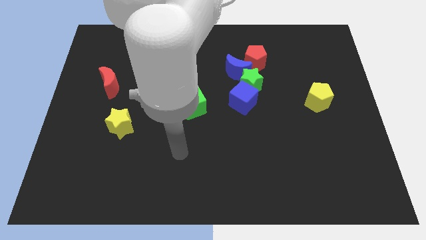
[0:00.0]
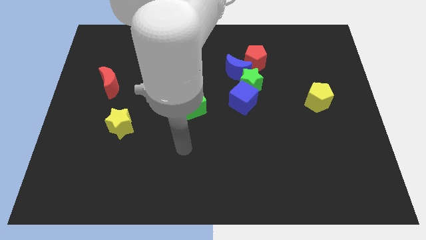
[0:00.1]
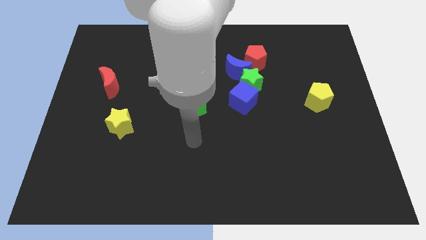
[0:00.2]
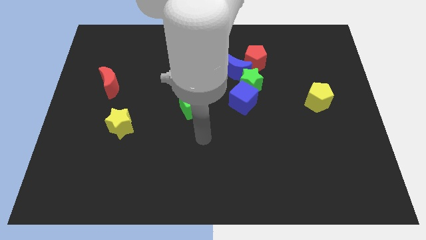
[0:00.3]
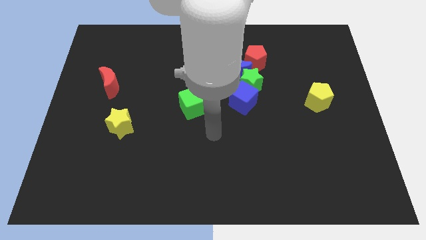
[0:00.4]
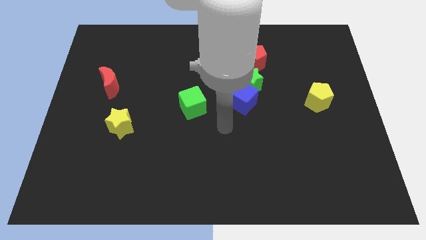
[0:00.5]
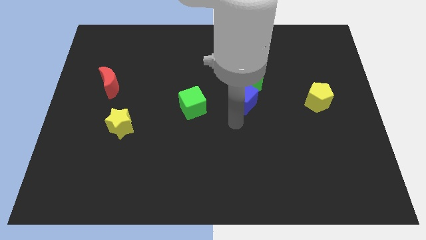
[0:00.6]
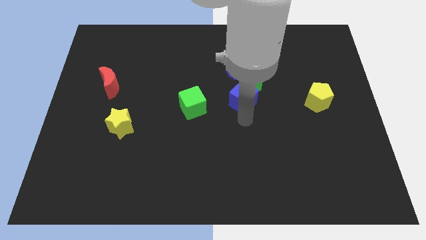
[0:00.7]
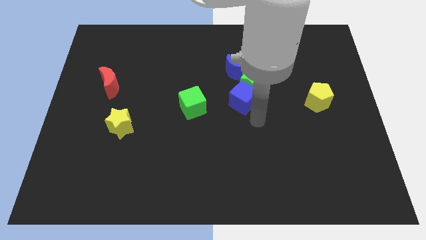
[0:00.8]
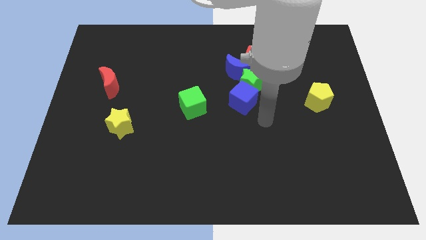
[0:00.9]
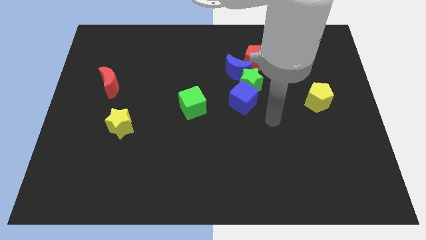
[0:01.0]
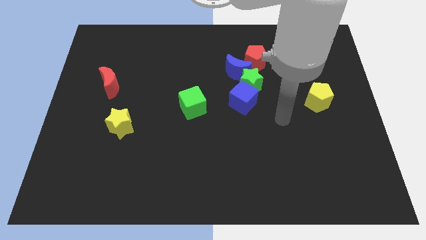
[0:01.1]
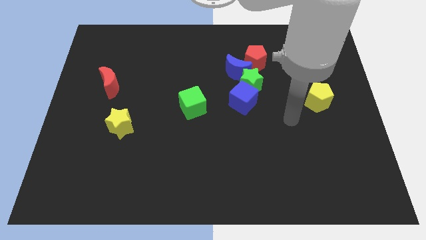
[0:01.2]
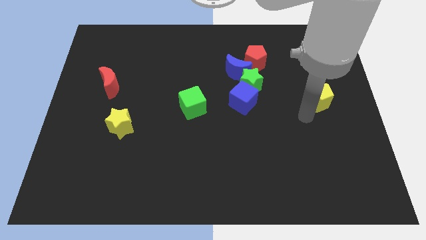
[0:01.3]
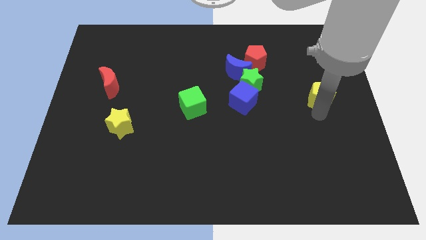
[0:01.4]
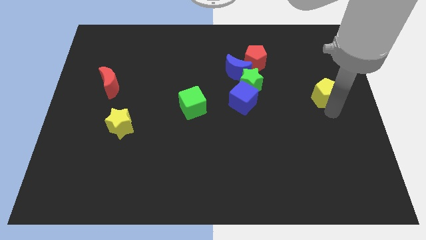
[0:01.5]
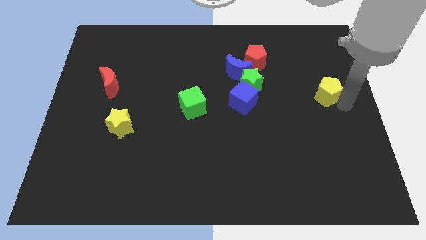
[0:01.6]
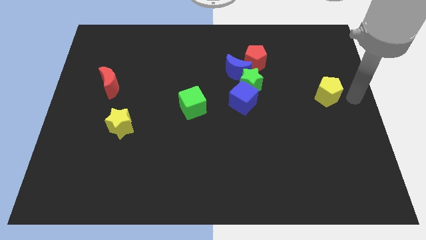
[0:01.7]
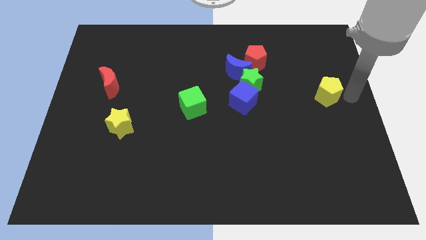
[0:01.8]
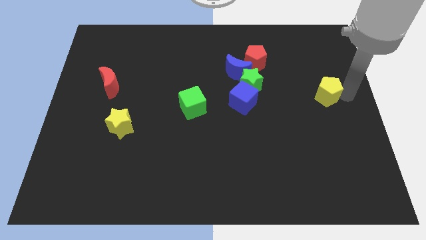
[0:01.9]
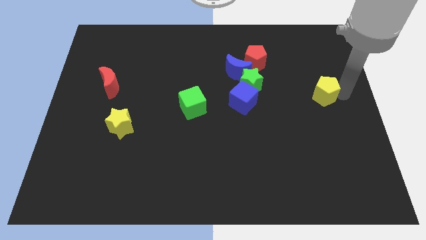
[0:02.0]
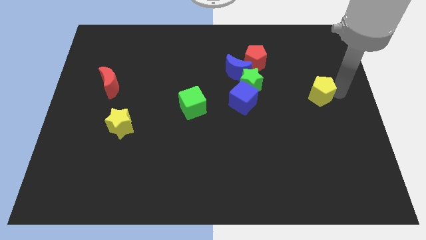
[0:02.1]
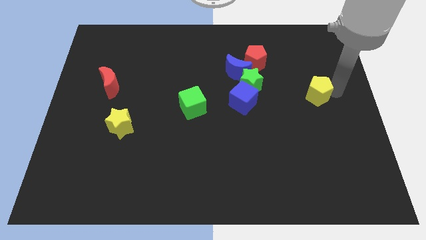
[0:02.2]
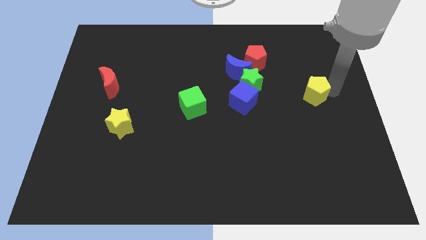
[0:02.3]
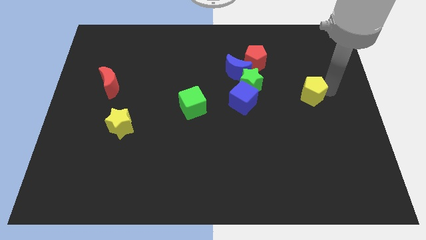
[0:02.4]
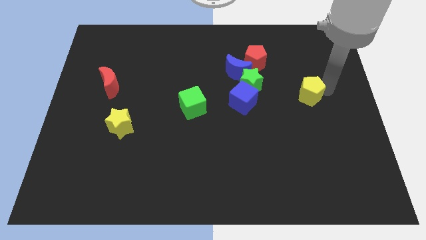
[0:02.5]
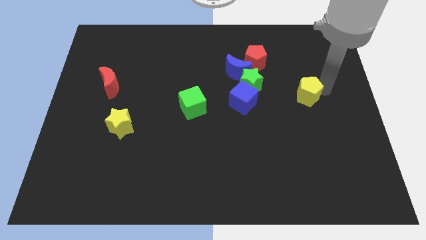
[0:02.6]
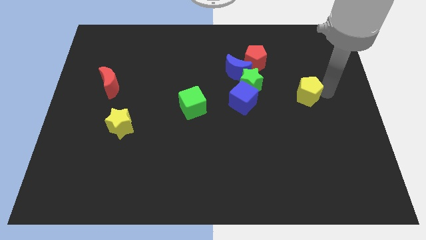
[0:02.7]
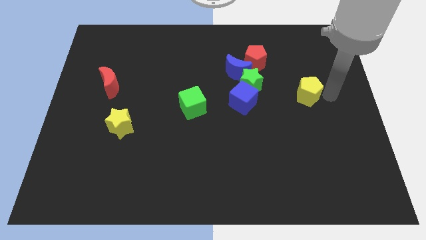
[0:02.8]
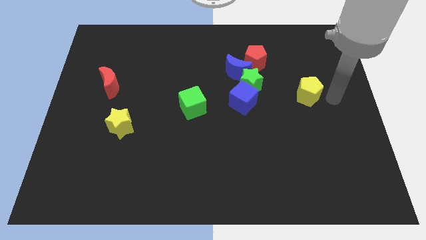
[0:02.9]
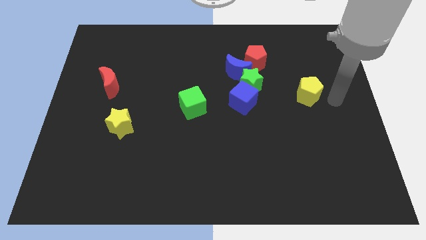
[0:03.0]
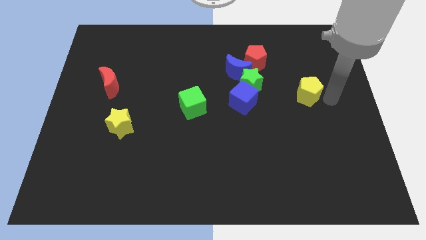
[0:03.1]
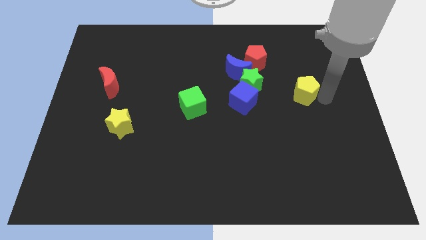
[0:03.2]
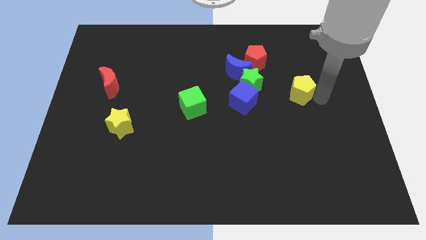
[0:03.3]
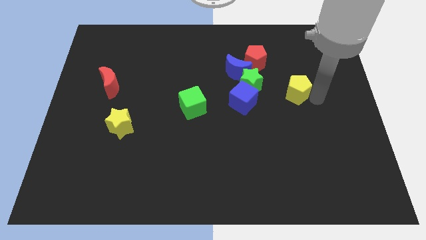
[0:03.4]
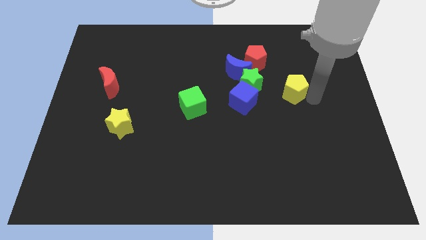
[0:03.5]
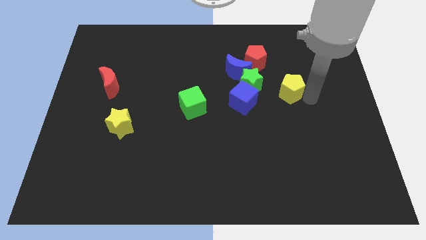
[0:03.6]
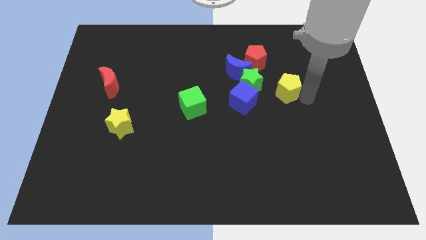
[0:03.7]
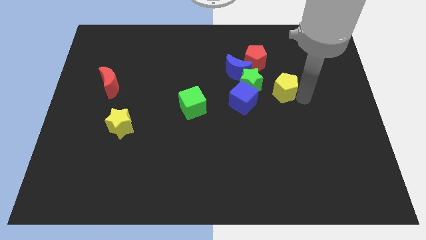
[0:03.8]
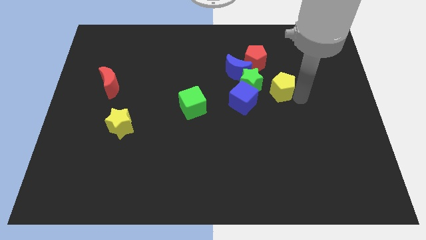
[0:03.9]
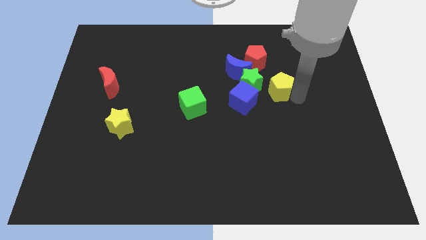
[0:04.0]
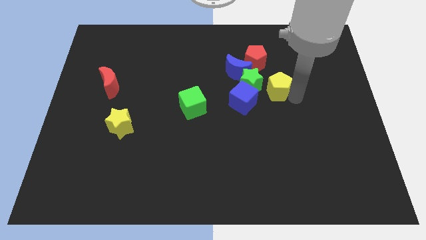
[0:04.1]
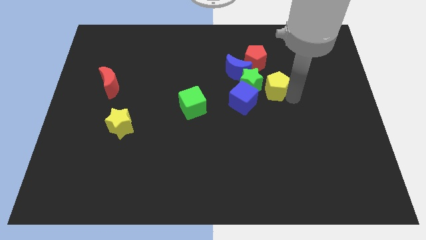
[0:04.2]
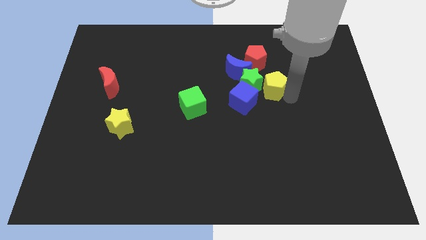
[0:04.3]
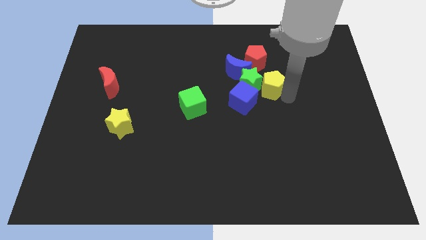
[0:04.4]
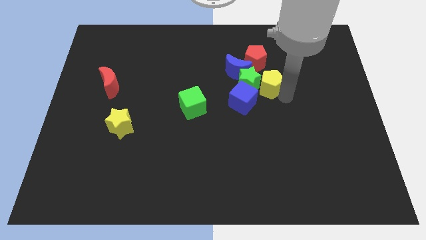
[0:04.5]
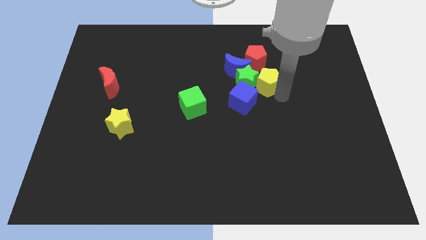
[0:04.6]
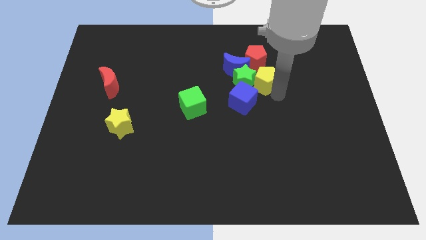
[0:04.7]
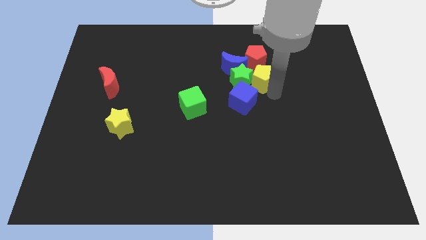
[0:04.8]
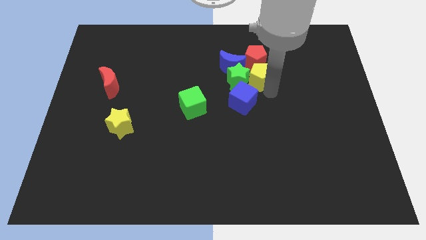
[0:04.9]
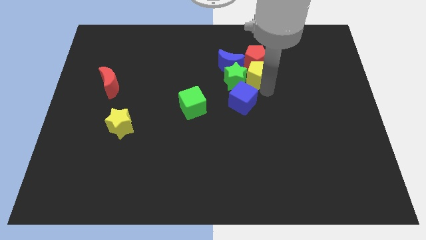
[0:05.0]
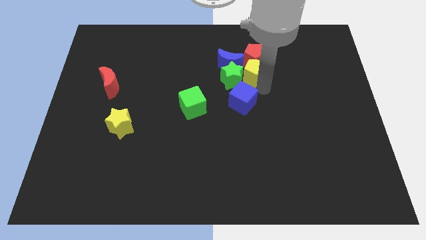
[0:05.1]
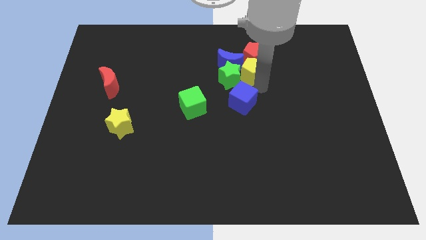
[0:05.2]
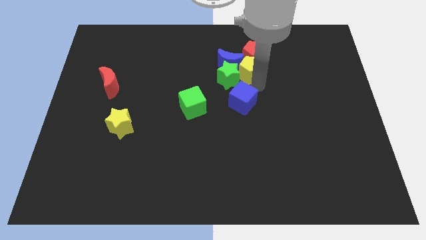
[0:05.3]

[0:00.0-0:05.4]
move the yellow pentagon to the blue moon

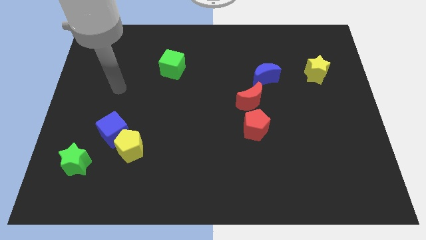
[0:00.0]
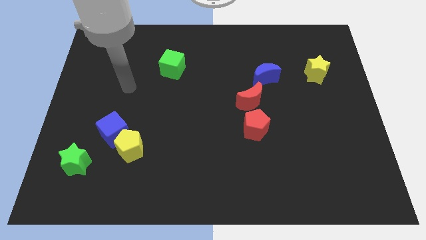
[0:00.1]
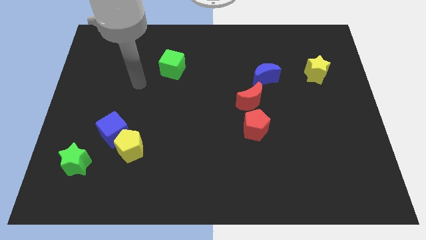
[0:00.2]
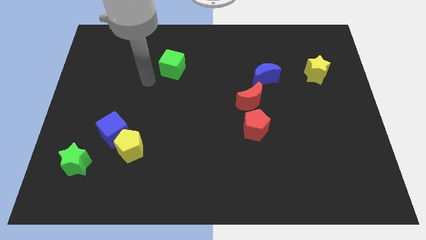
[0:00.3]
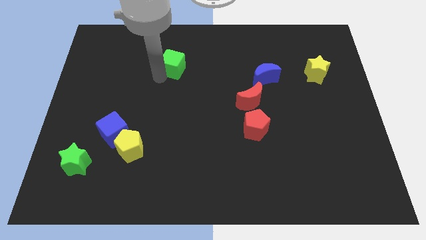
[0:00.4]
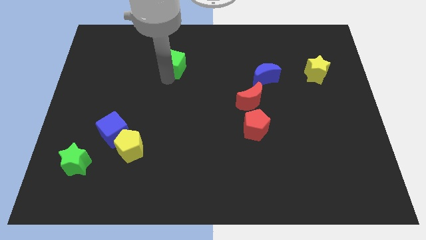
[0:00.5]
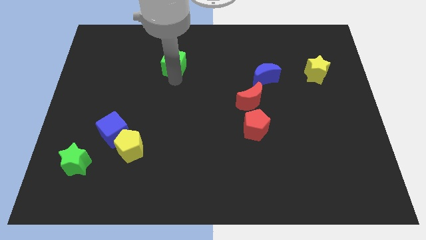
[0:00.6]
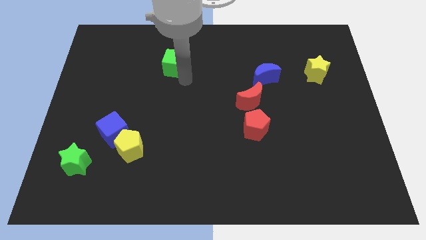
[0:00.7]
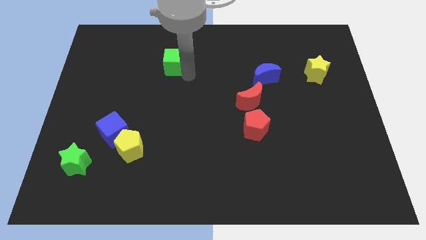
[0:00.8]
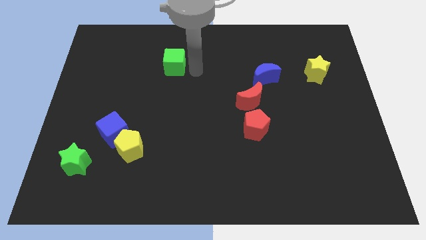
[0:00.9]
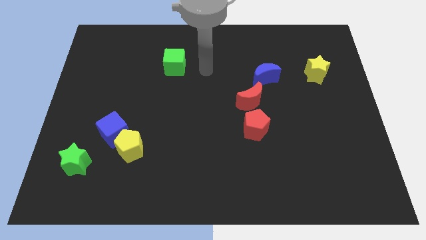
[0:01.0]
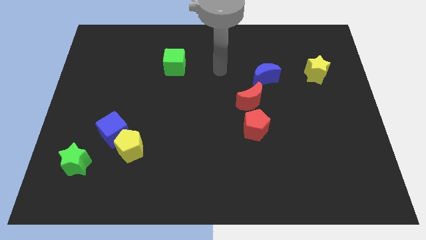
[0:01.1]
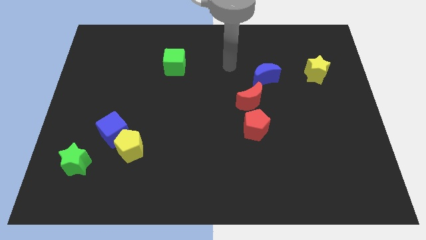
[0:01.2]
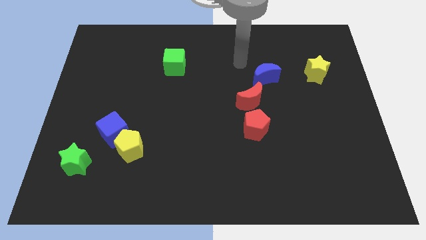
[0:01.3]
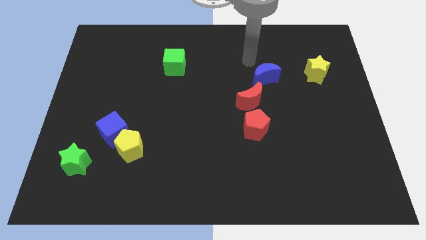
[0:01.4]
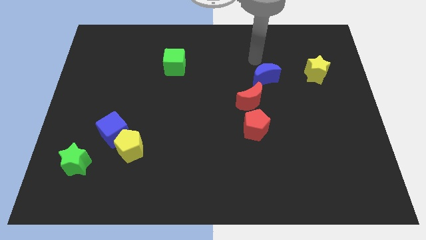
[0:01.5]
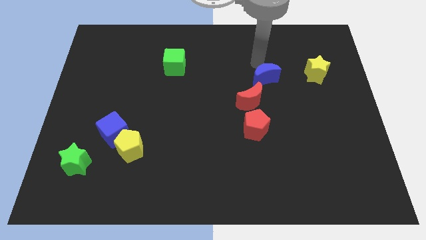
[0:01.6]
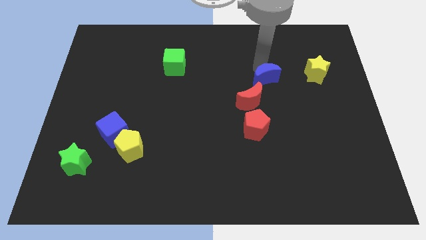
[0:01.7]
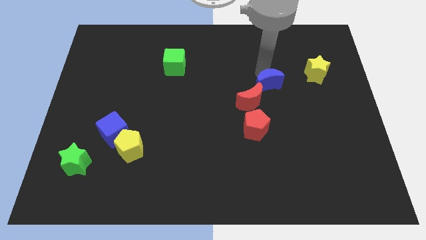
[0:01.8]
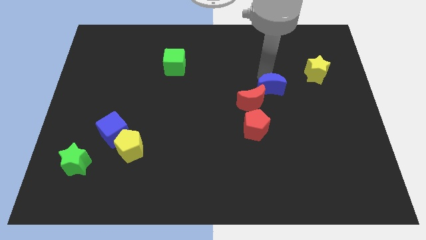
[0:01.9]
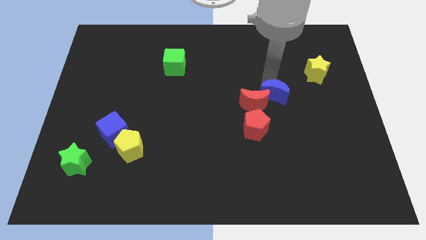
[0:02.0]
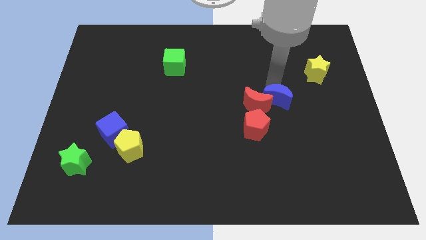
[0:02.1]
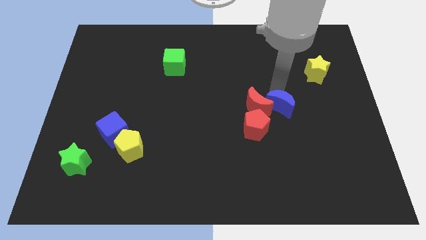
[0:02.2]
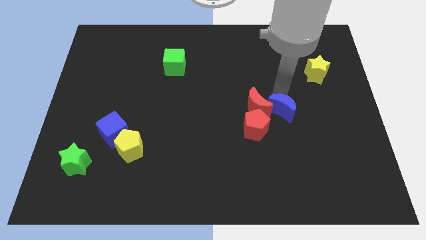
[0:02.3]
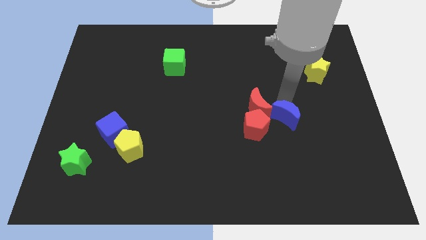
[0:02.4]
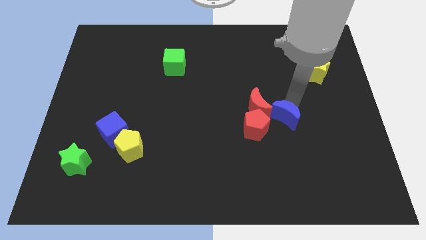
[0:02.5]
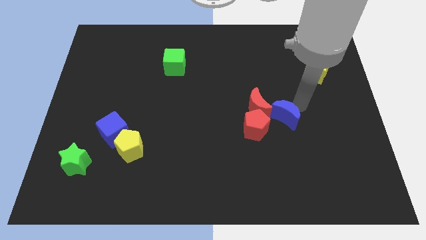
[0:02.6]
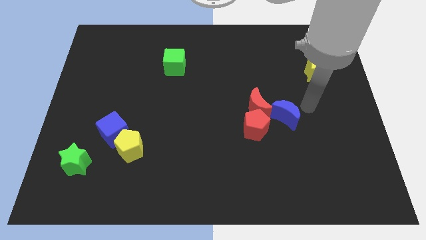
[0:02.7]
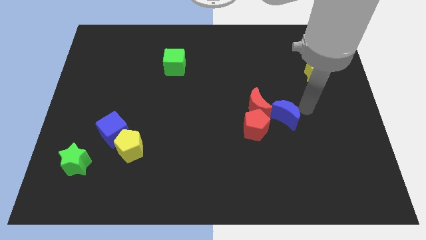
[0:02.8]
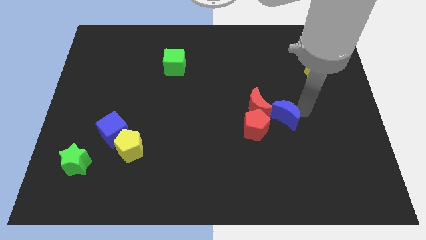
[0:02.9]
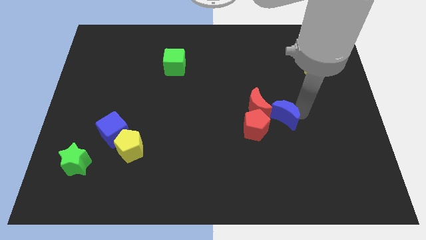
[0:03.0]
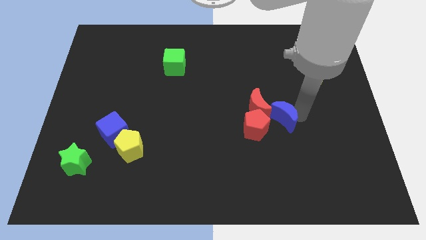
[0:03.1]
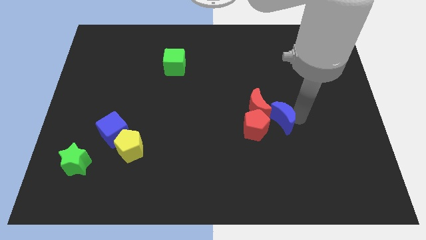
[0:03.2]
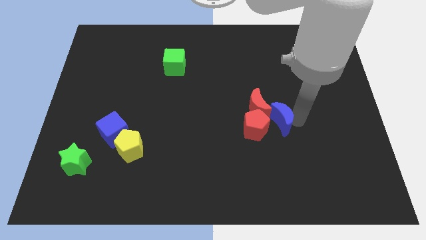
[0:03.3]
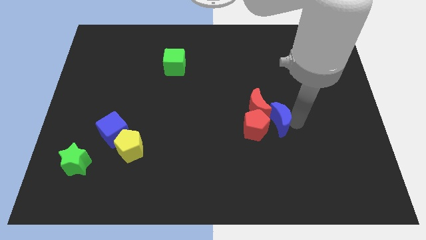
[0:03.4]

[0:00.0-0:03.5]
move the blue moon to the red pentagon
